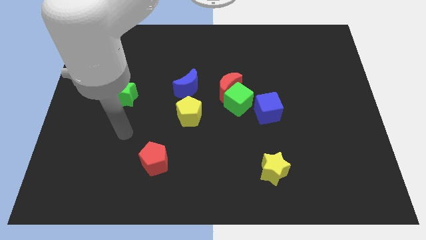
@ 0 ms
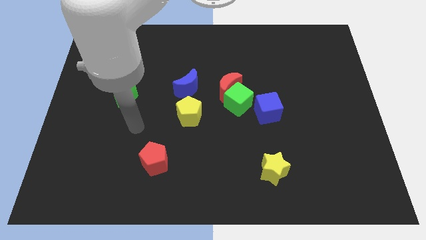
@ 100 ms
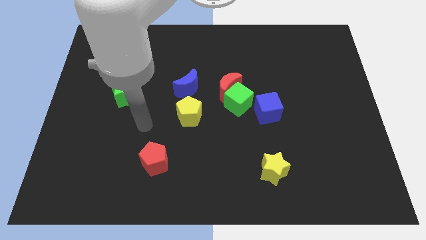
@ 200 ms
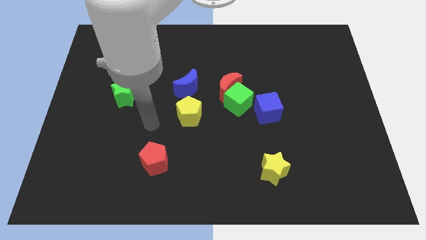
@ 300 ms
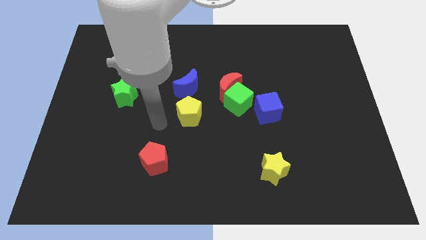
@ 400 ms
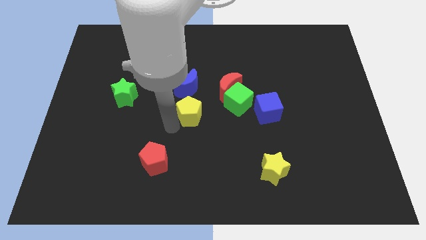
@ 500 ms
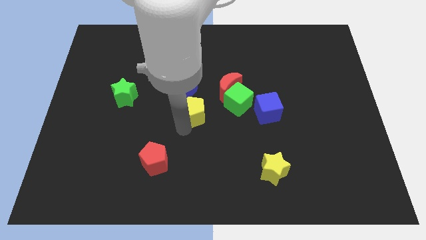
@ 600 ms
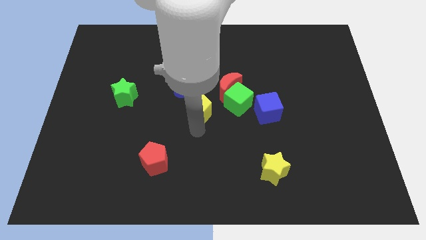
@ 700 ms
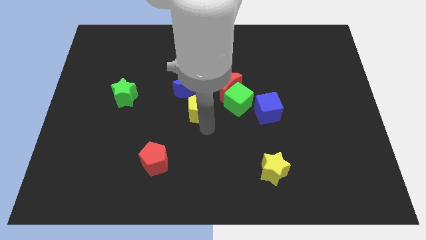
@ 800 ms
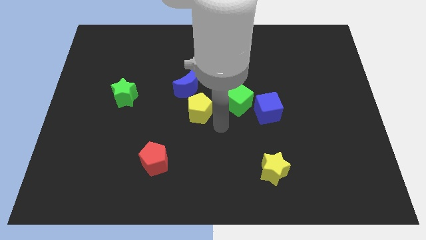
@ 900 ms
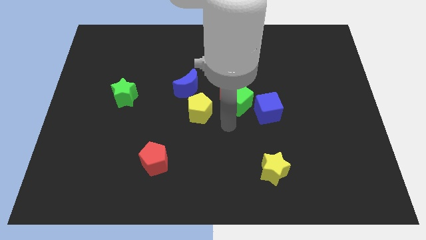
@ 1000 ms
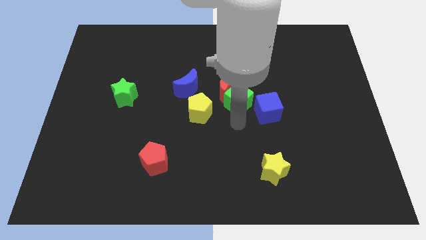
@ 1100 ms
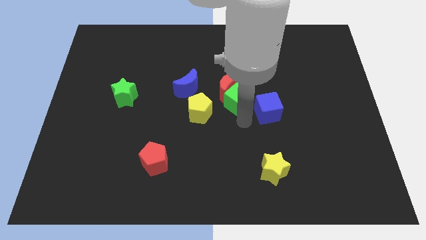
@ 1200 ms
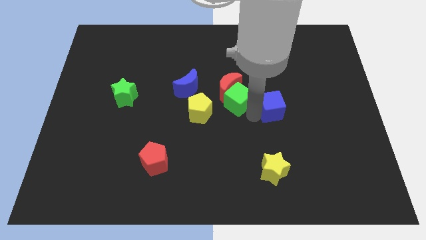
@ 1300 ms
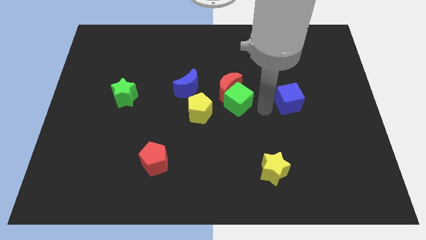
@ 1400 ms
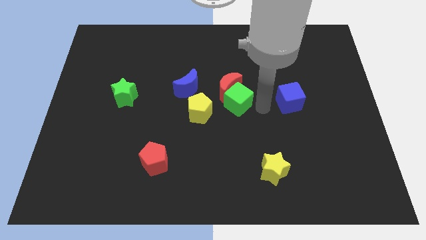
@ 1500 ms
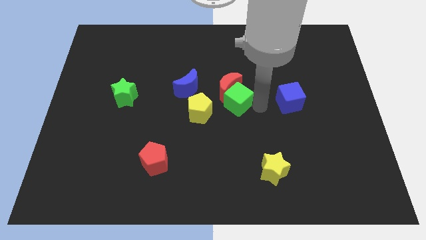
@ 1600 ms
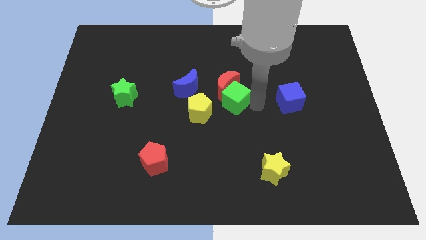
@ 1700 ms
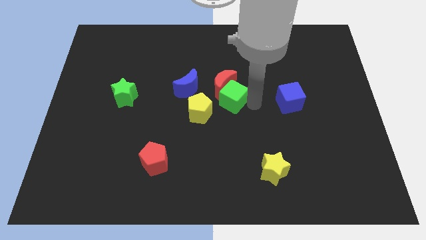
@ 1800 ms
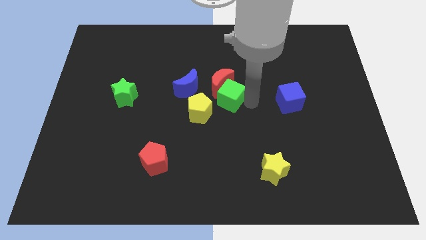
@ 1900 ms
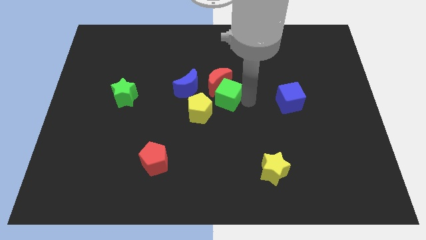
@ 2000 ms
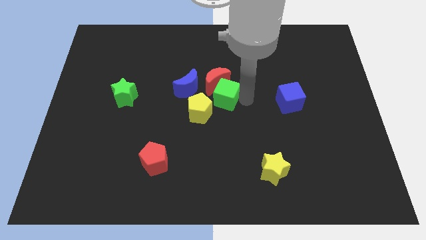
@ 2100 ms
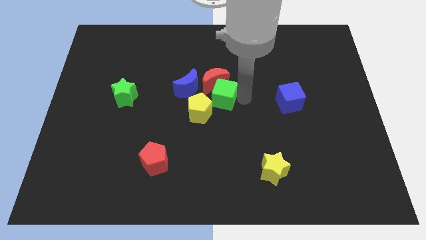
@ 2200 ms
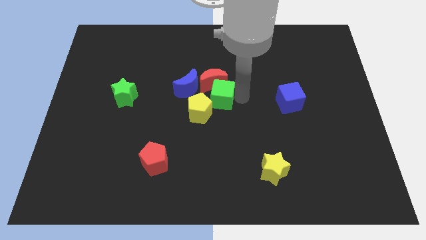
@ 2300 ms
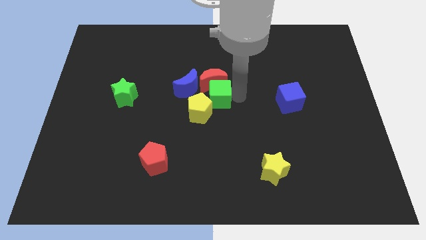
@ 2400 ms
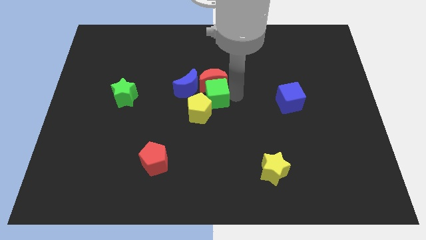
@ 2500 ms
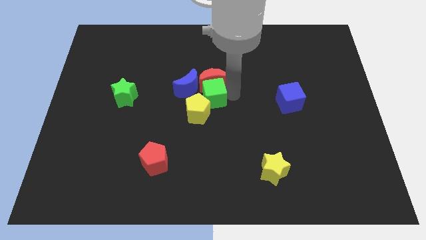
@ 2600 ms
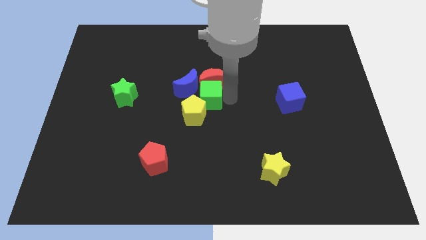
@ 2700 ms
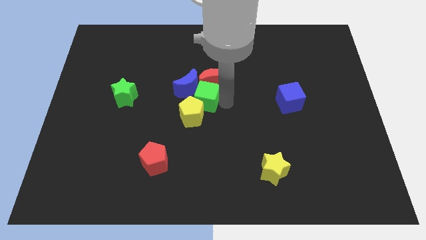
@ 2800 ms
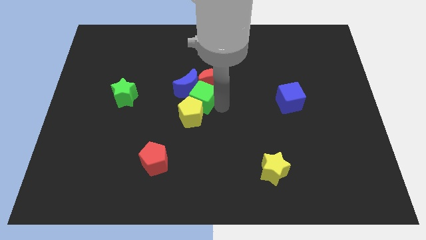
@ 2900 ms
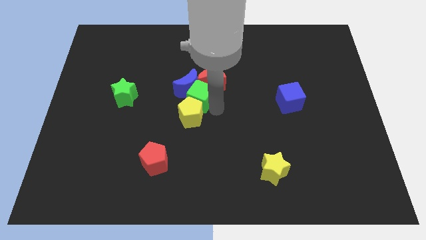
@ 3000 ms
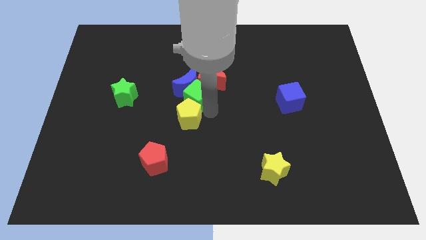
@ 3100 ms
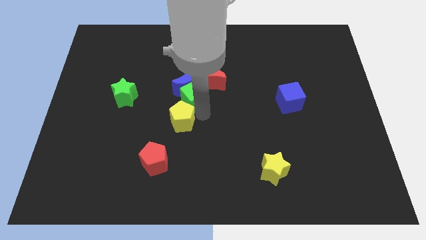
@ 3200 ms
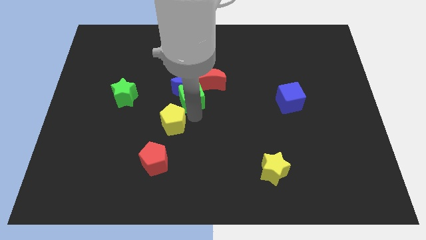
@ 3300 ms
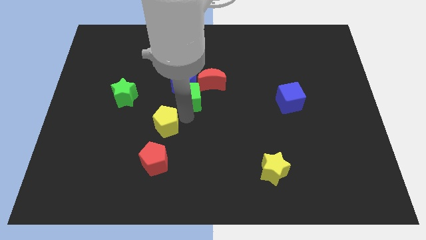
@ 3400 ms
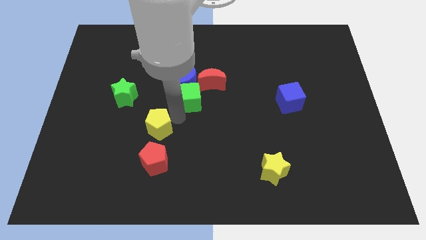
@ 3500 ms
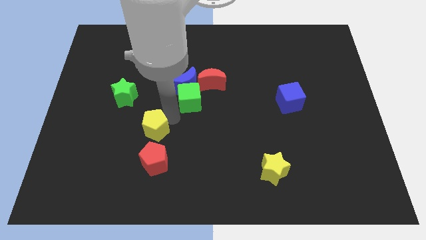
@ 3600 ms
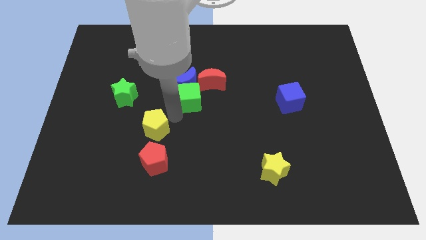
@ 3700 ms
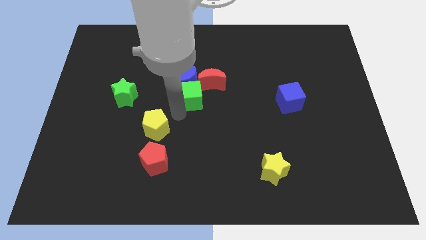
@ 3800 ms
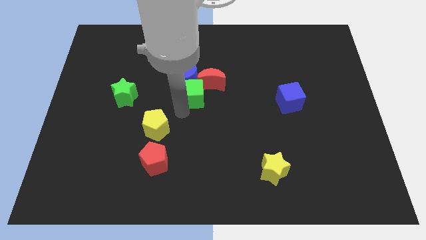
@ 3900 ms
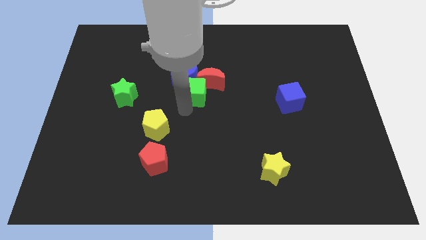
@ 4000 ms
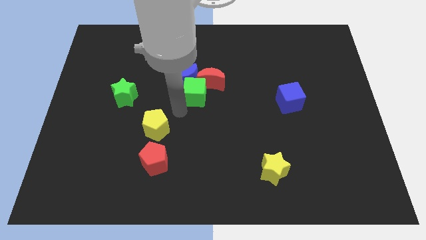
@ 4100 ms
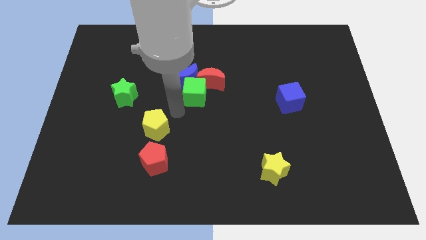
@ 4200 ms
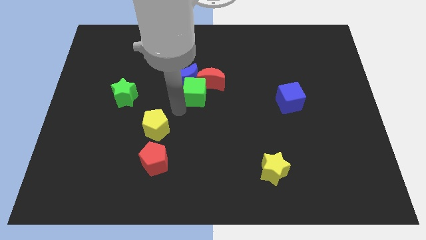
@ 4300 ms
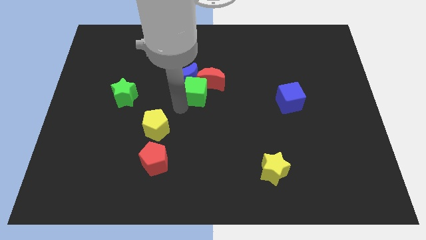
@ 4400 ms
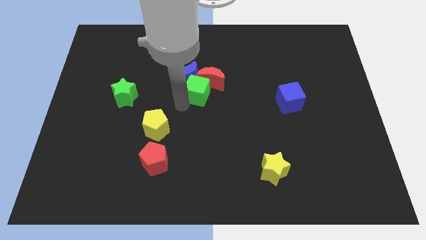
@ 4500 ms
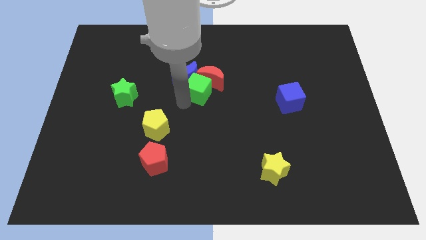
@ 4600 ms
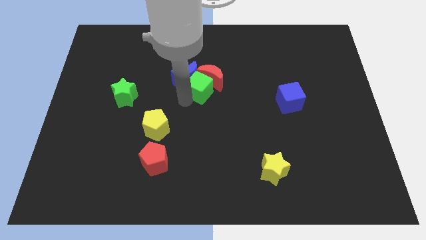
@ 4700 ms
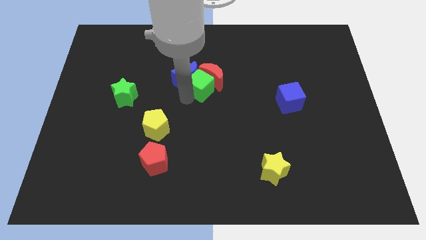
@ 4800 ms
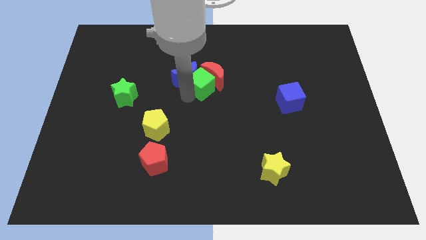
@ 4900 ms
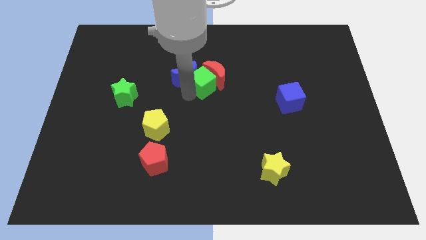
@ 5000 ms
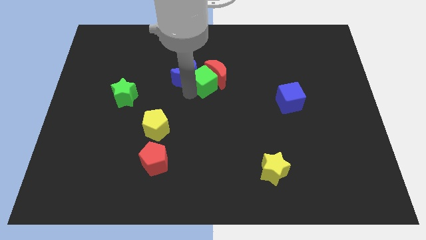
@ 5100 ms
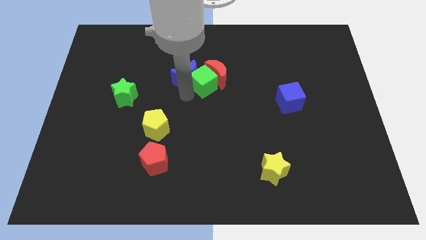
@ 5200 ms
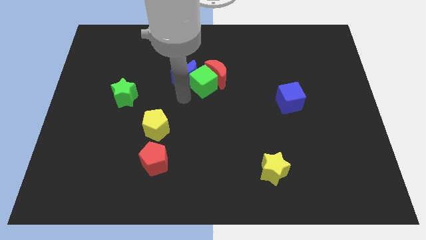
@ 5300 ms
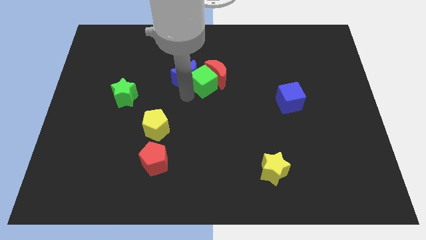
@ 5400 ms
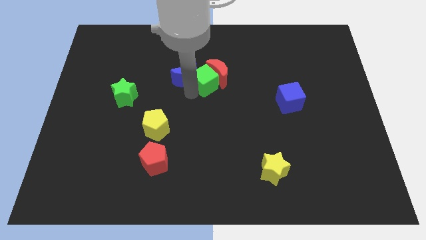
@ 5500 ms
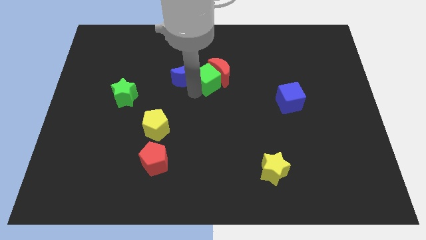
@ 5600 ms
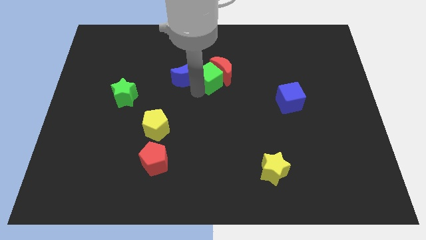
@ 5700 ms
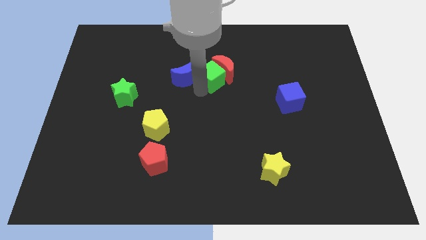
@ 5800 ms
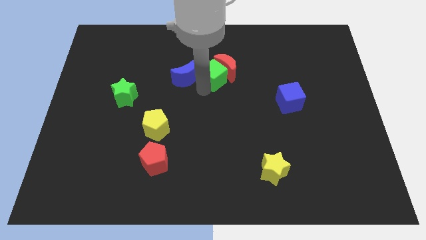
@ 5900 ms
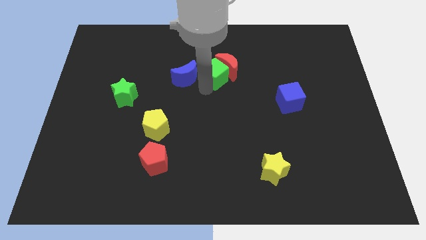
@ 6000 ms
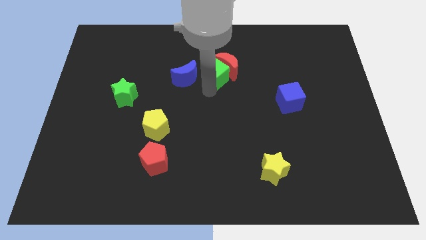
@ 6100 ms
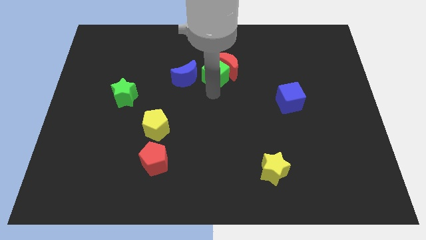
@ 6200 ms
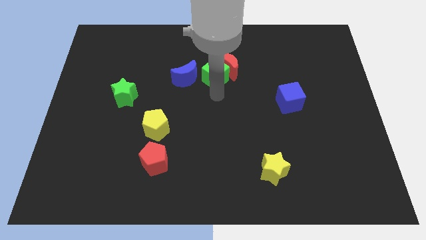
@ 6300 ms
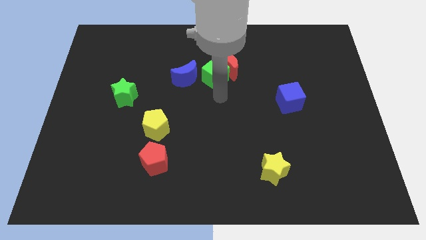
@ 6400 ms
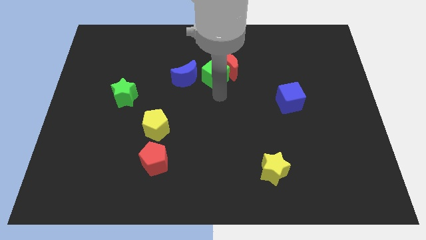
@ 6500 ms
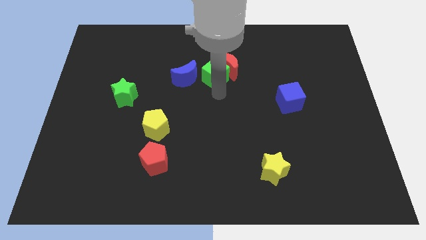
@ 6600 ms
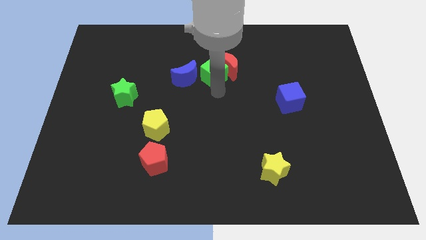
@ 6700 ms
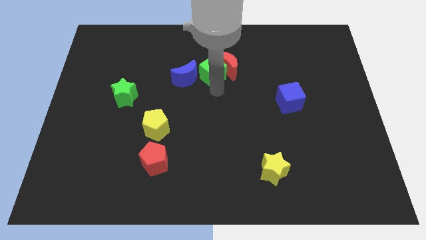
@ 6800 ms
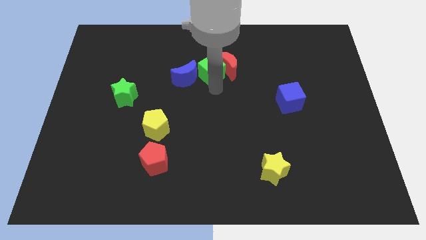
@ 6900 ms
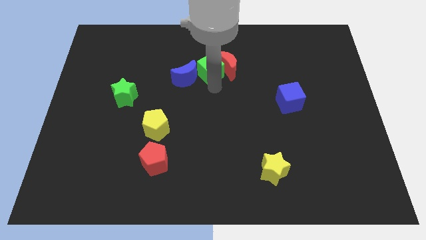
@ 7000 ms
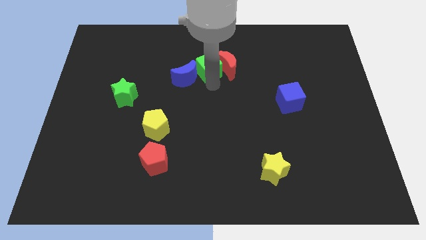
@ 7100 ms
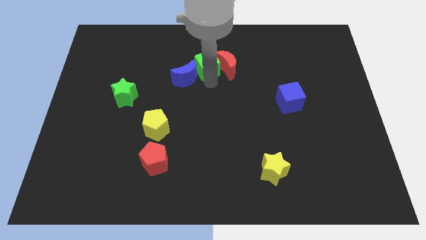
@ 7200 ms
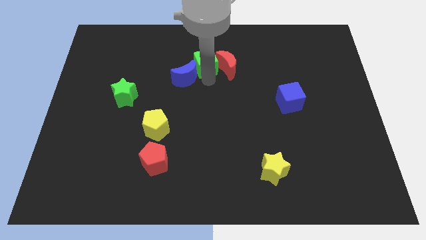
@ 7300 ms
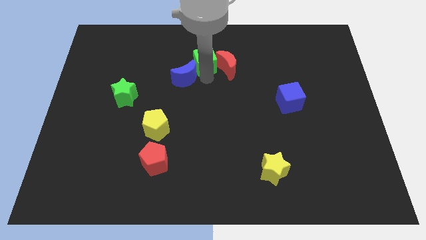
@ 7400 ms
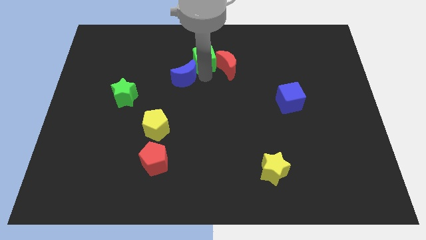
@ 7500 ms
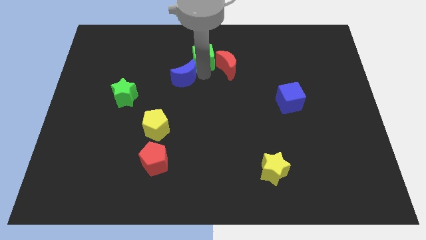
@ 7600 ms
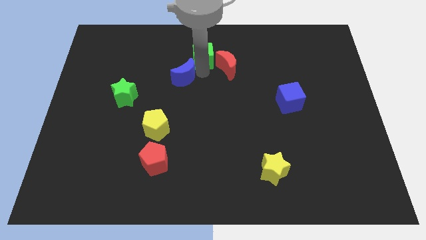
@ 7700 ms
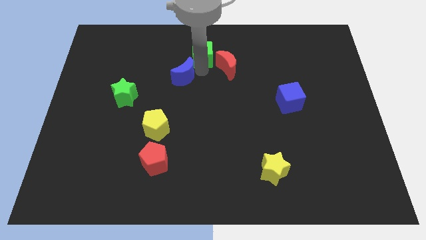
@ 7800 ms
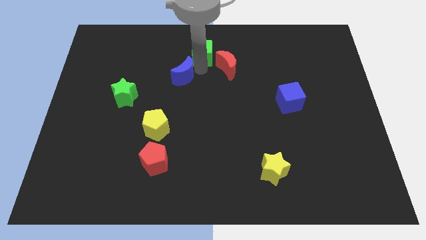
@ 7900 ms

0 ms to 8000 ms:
push the green cube to the top
